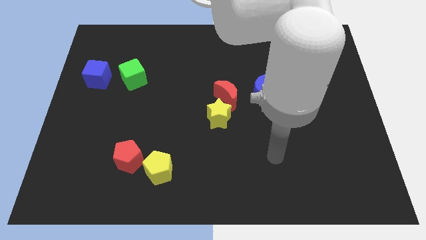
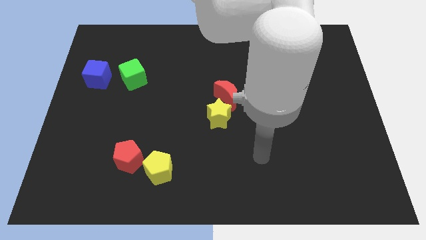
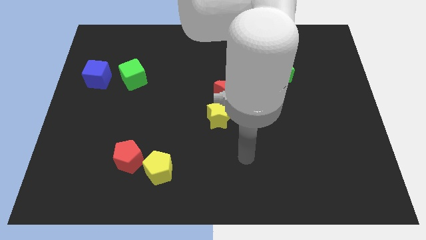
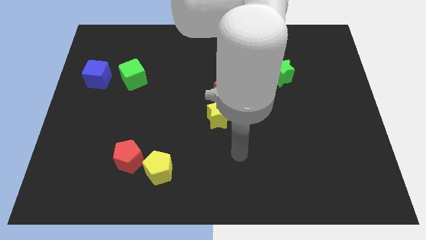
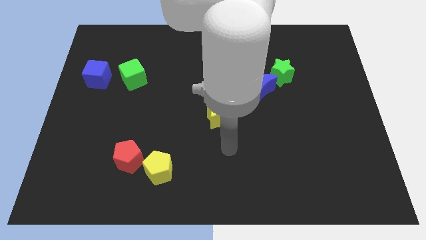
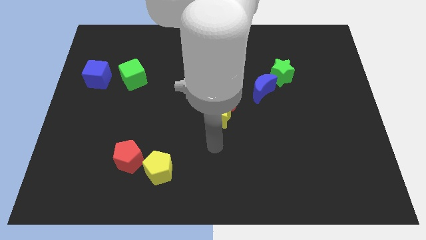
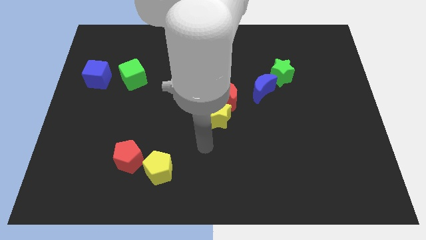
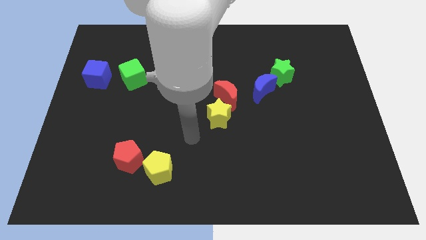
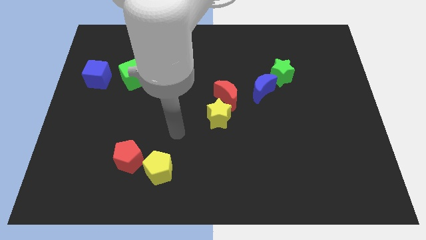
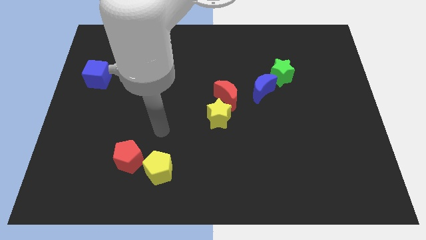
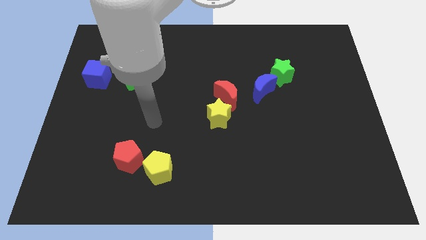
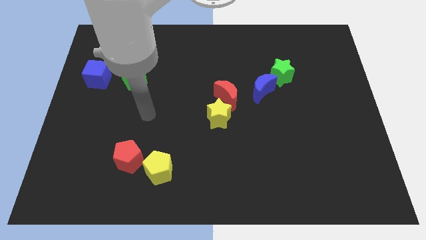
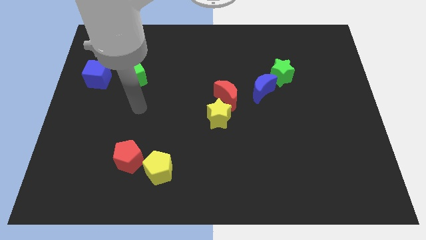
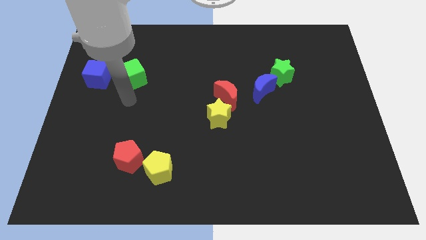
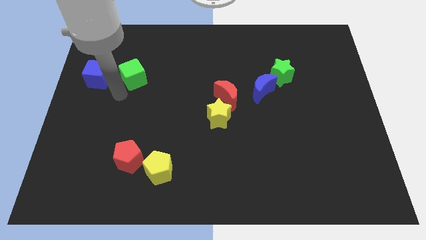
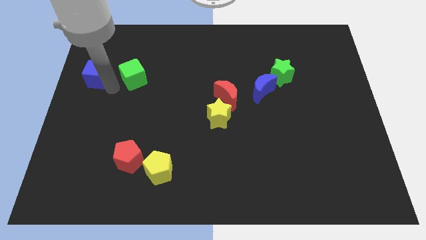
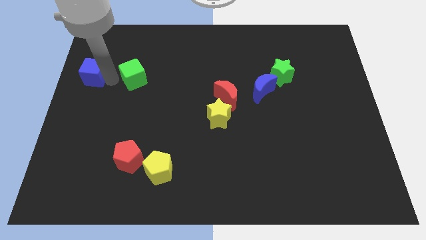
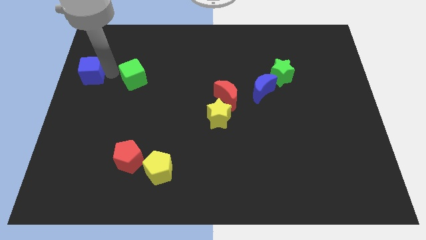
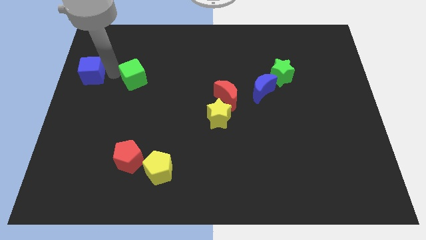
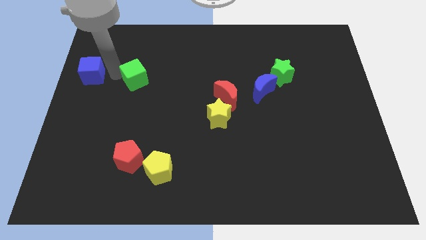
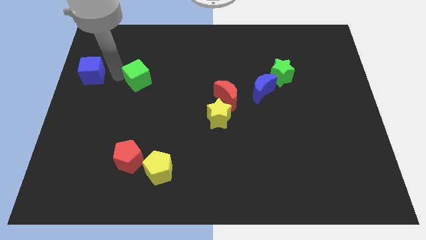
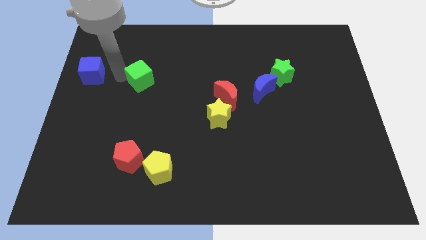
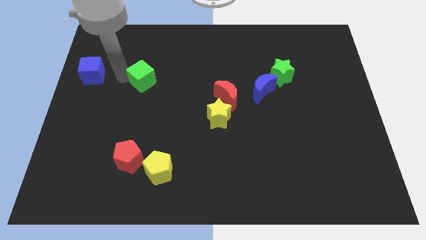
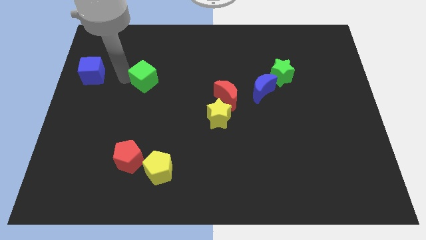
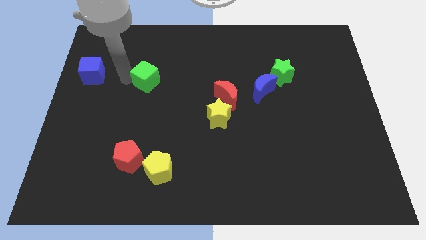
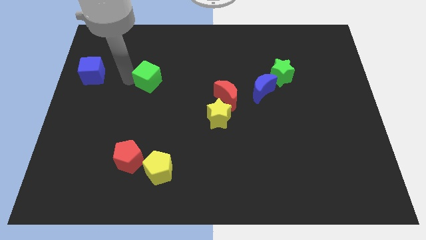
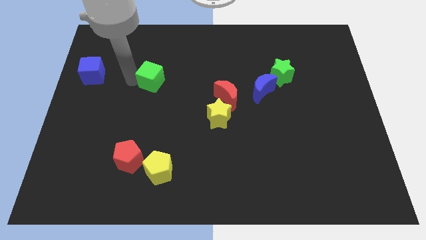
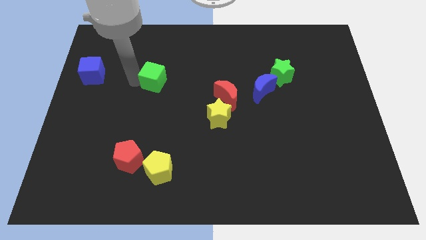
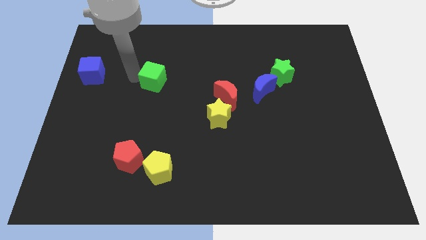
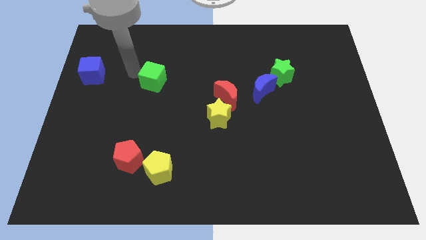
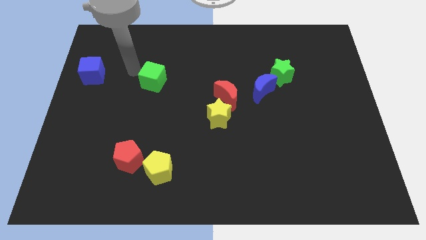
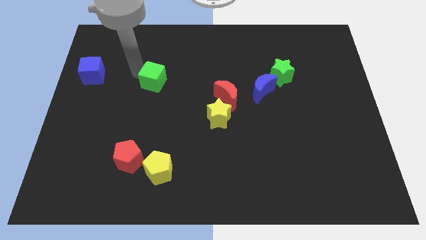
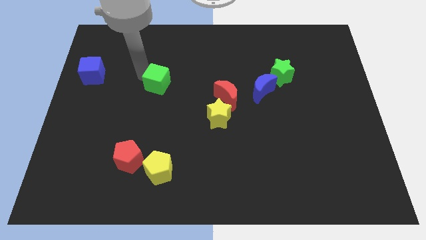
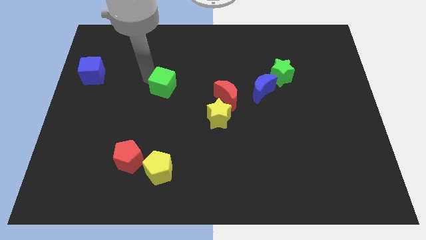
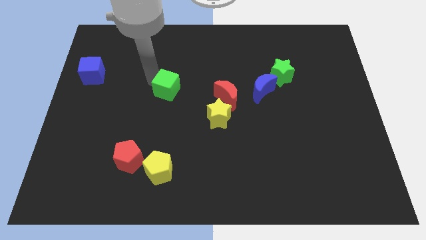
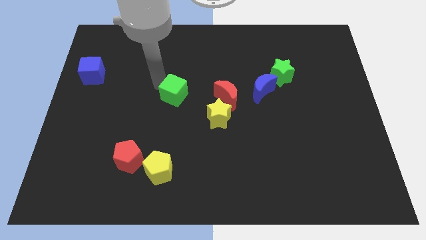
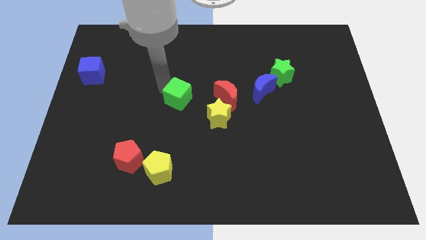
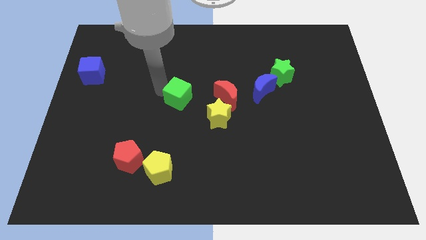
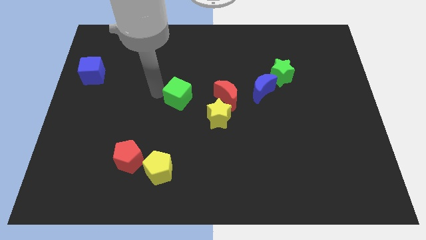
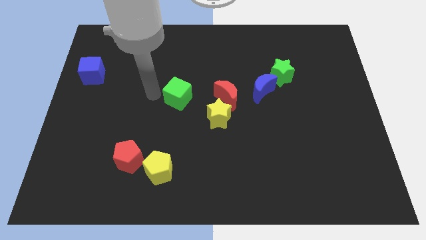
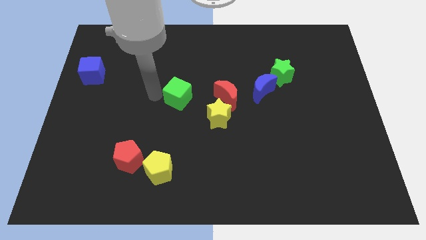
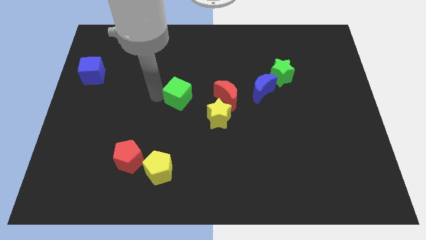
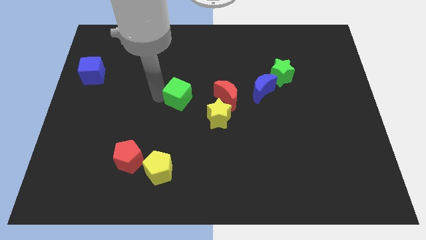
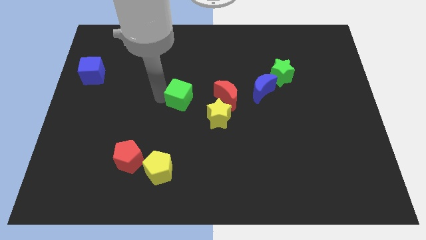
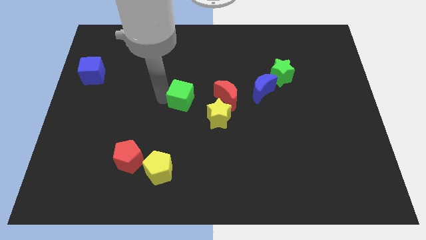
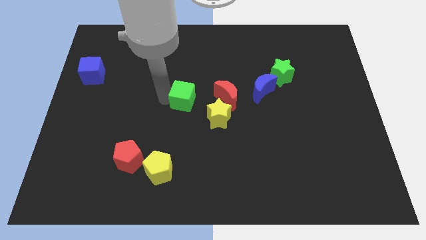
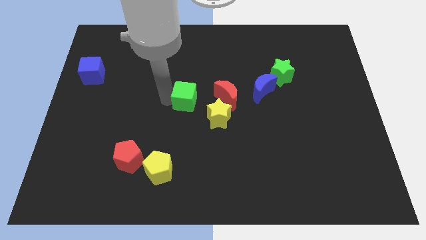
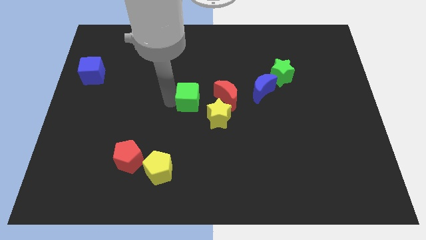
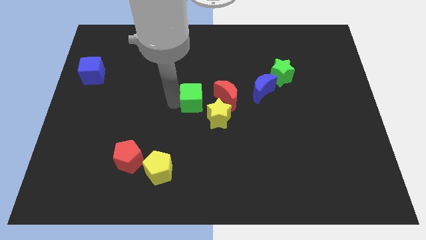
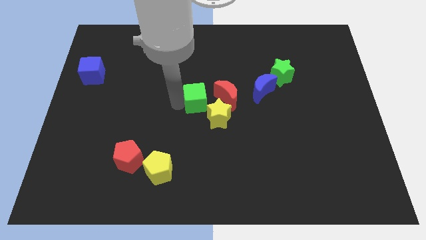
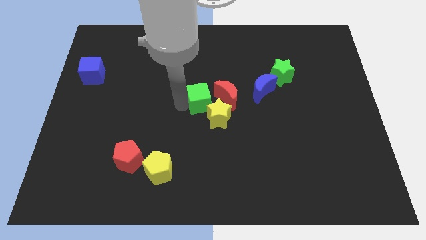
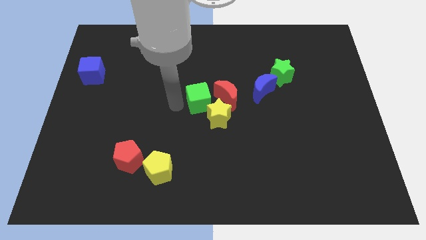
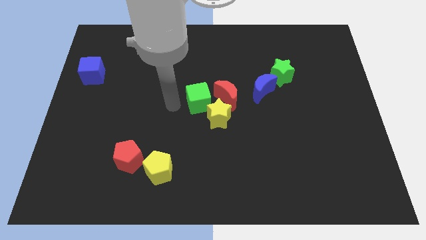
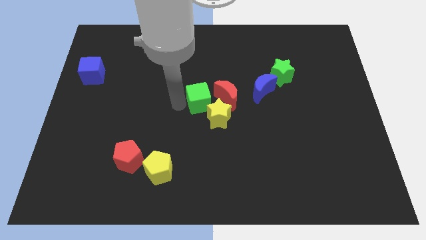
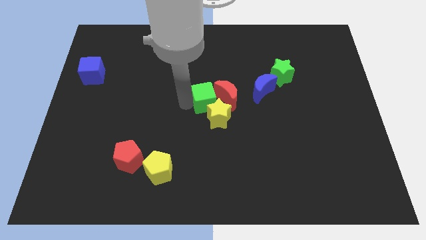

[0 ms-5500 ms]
move the green cube close to the red moon

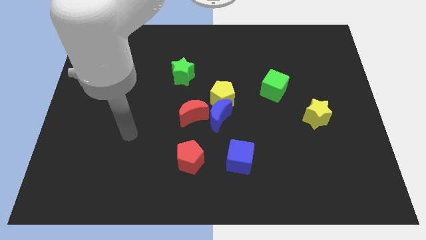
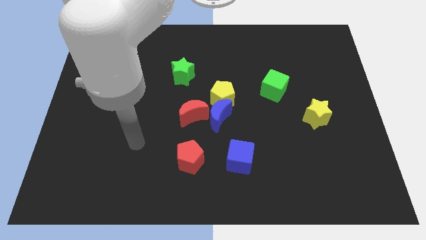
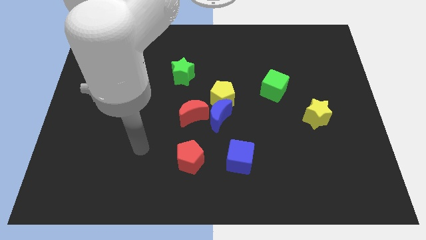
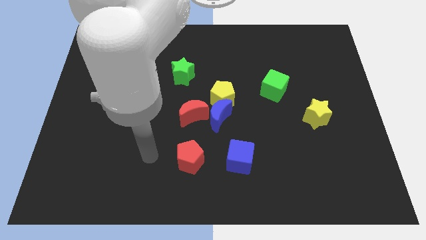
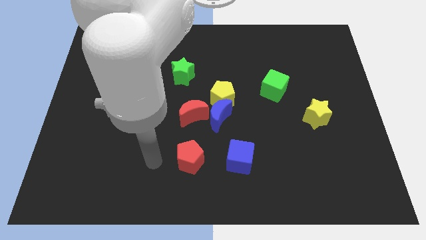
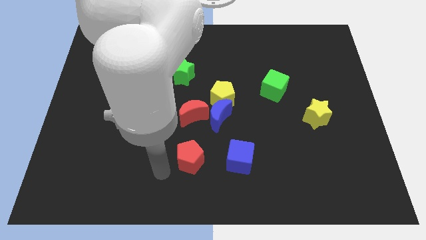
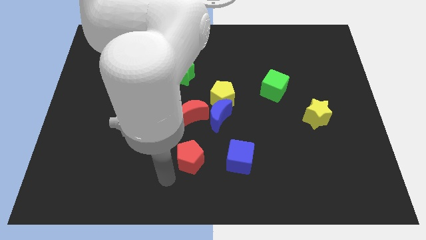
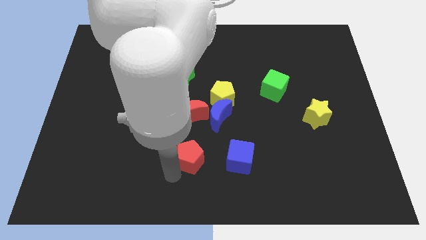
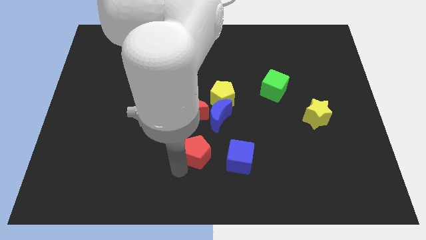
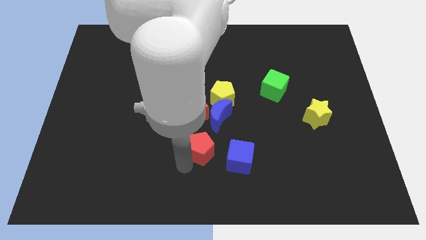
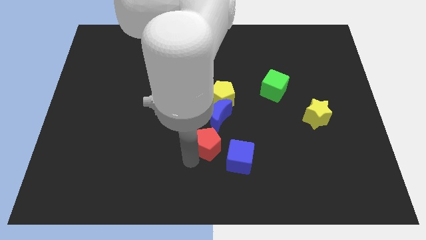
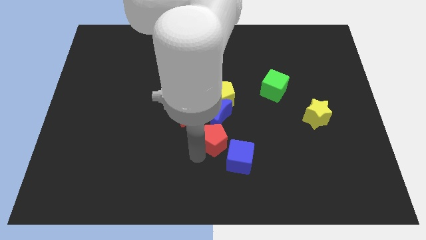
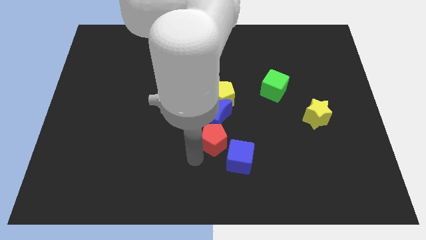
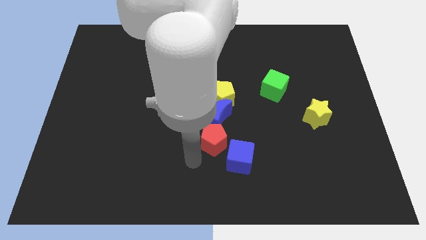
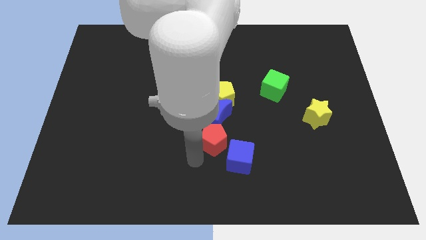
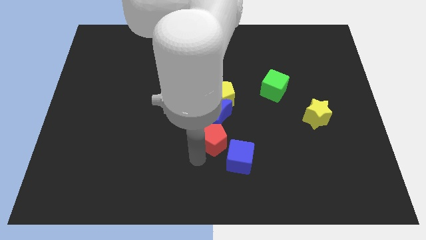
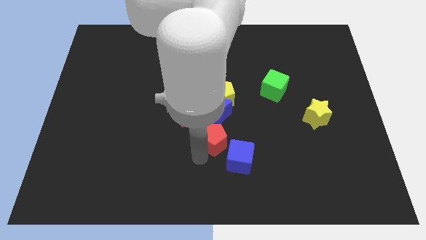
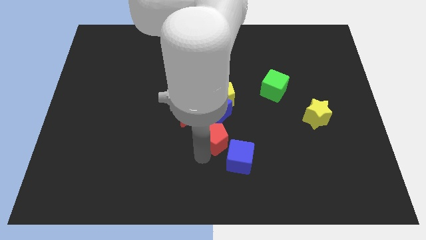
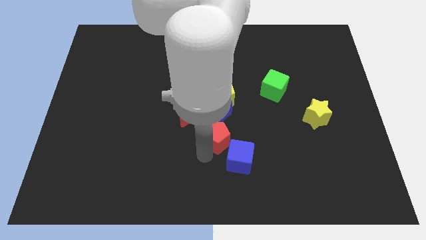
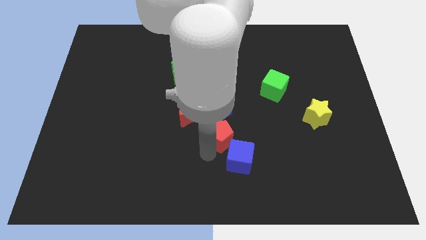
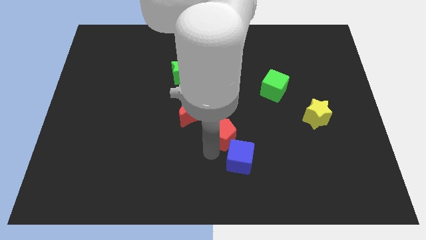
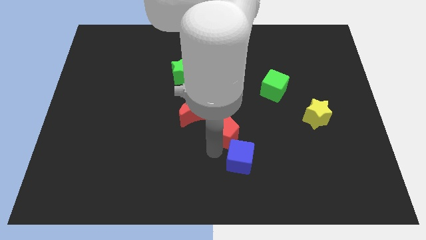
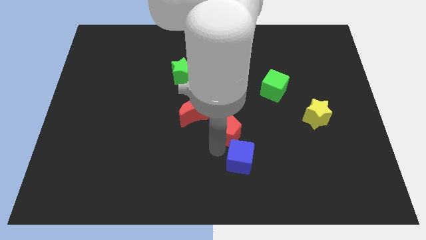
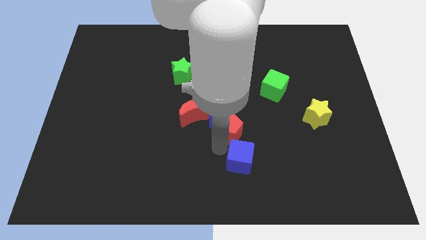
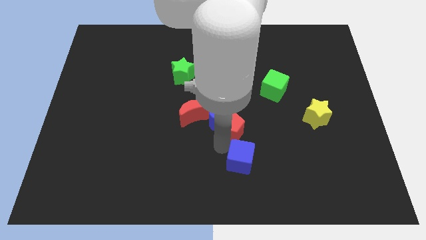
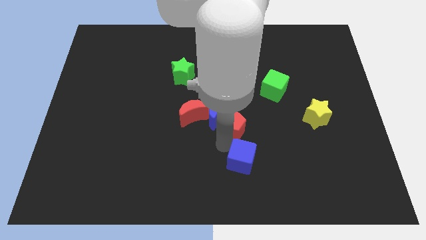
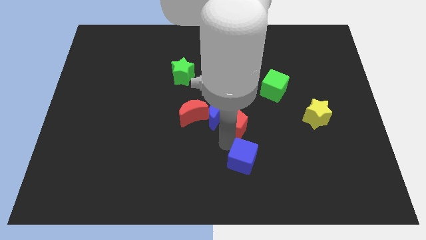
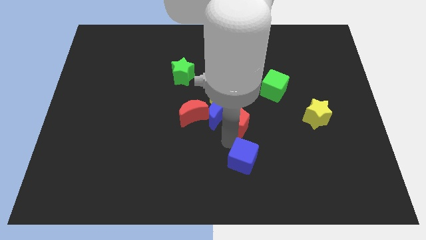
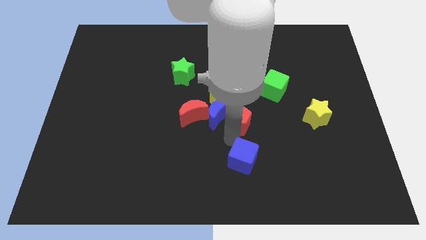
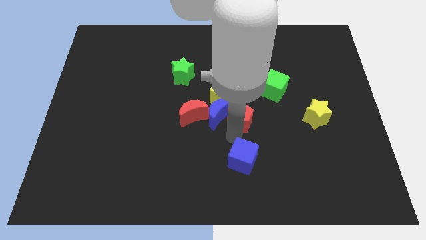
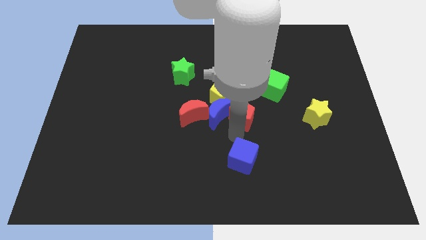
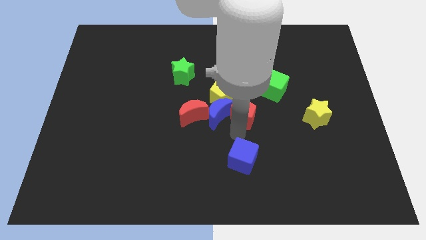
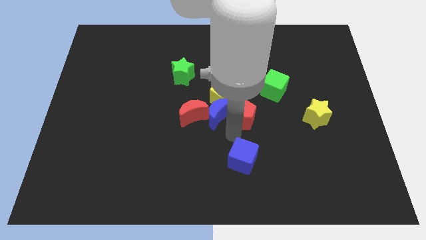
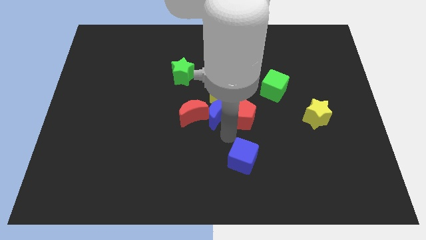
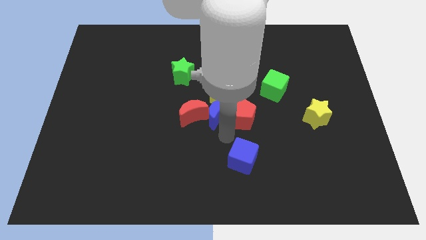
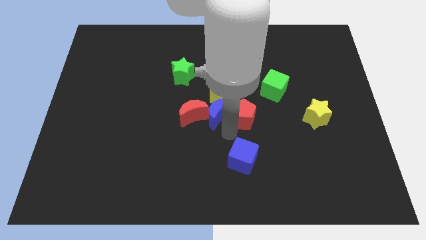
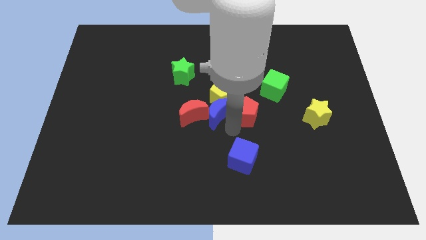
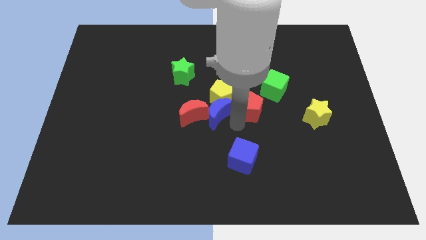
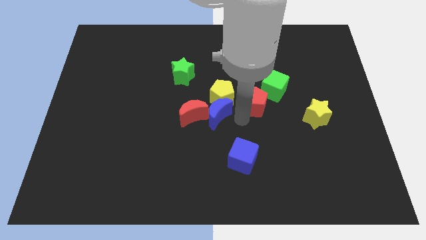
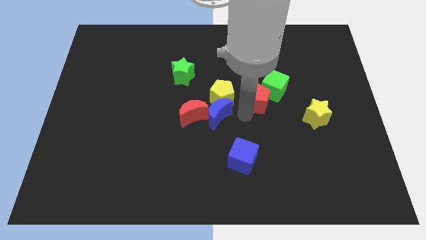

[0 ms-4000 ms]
push the red pentagon next to the green cube
